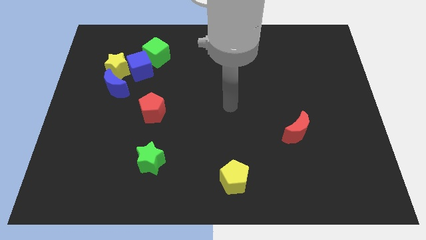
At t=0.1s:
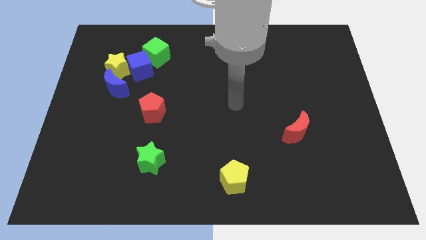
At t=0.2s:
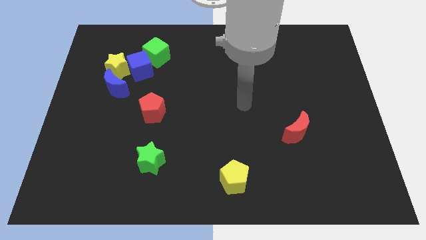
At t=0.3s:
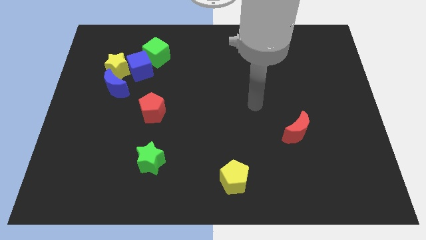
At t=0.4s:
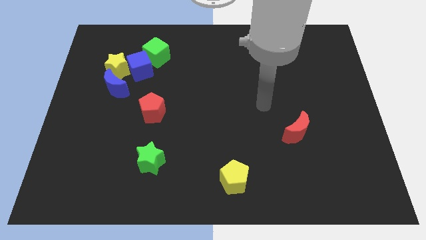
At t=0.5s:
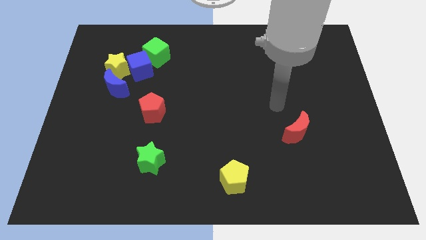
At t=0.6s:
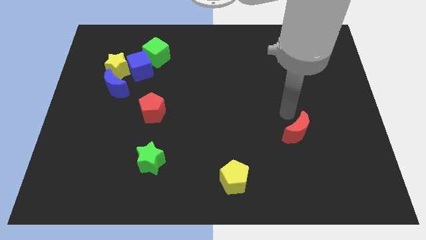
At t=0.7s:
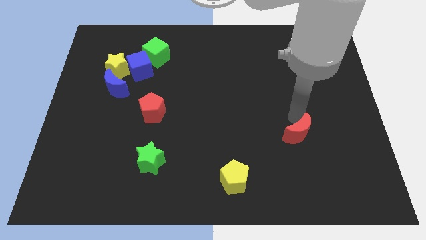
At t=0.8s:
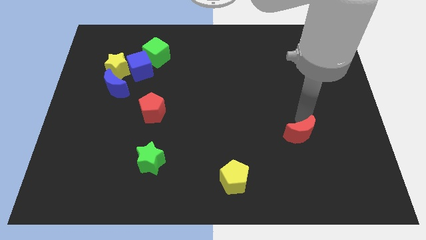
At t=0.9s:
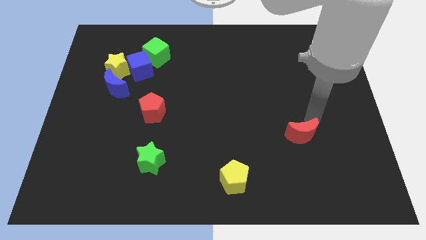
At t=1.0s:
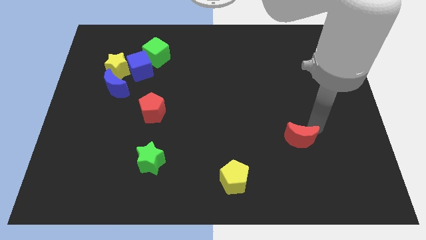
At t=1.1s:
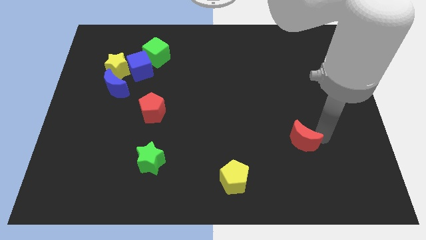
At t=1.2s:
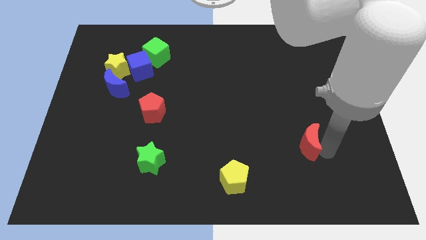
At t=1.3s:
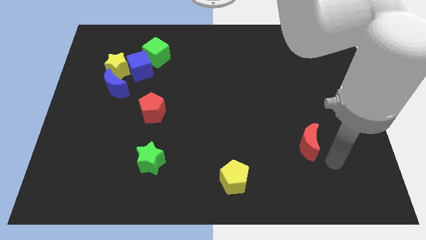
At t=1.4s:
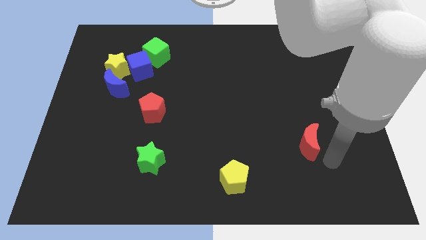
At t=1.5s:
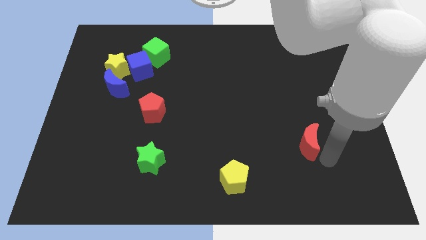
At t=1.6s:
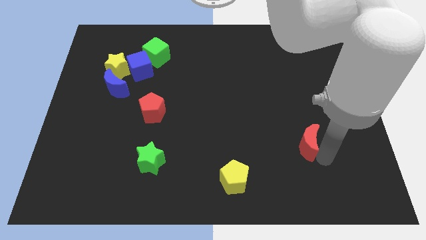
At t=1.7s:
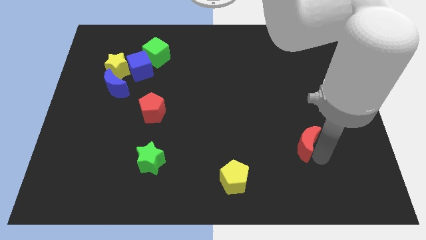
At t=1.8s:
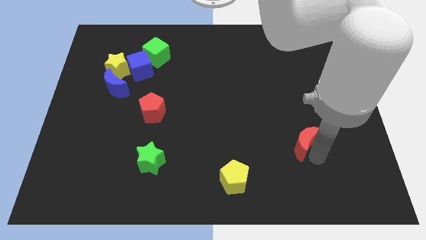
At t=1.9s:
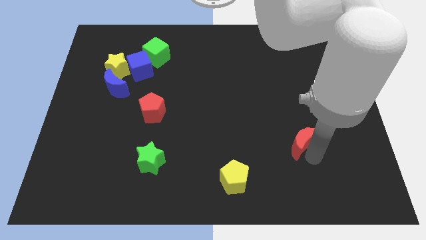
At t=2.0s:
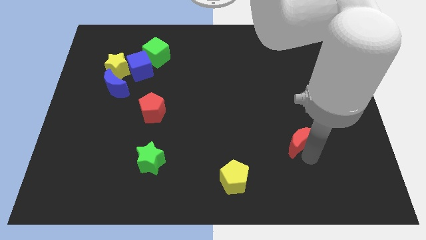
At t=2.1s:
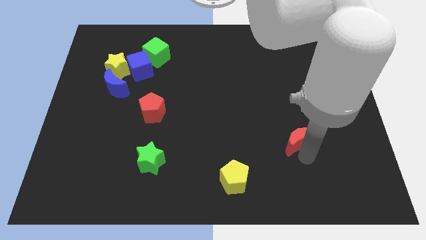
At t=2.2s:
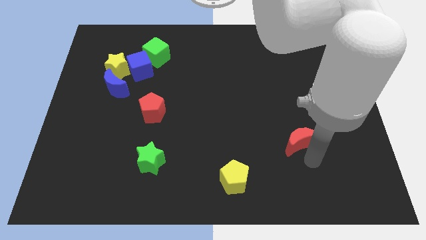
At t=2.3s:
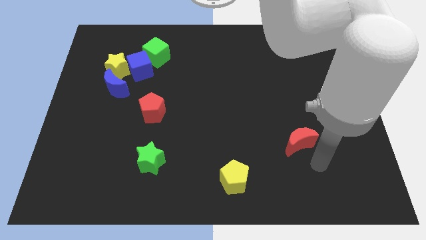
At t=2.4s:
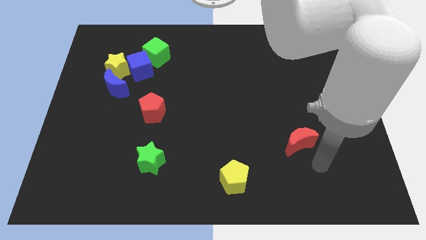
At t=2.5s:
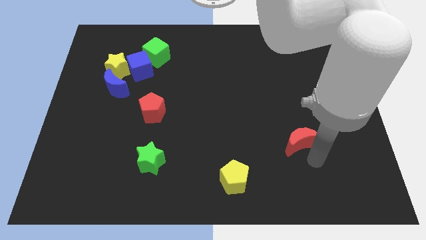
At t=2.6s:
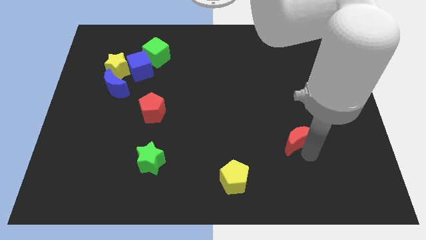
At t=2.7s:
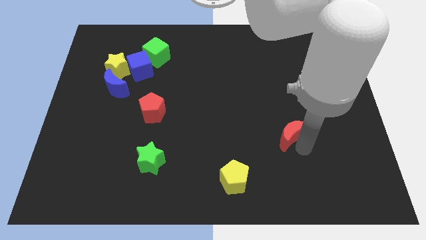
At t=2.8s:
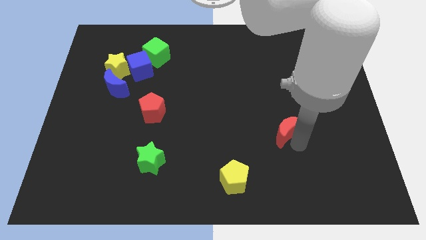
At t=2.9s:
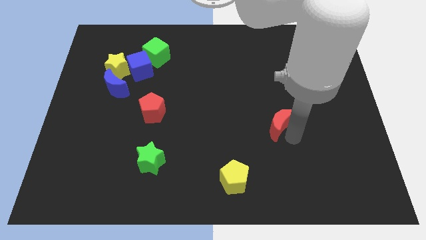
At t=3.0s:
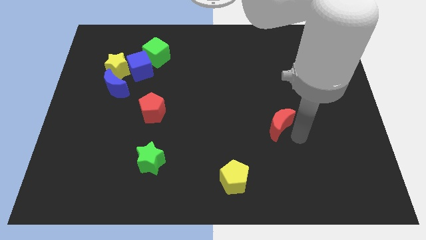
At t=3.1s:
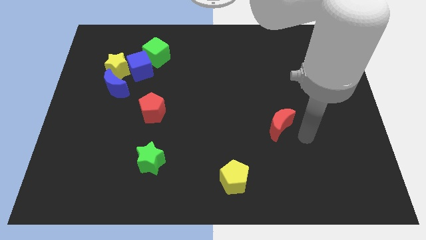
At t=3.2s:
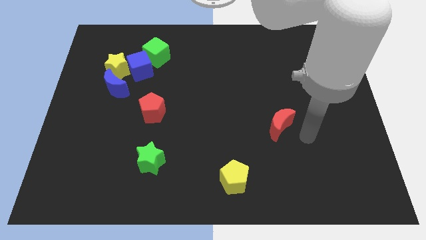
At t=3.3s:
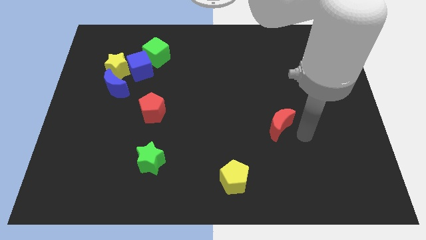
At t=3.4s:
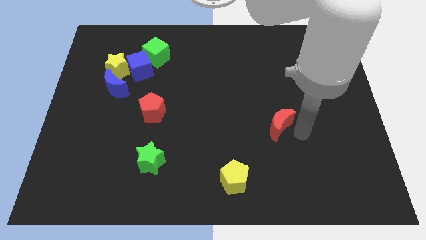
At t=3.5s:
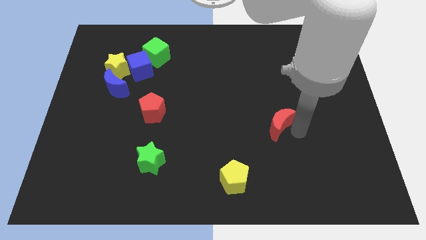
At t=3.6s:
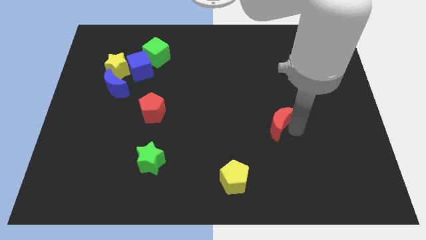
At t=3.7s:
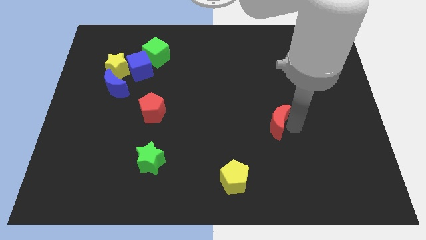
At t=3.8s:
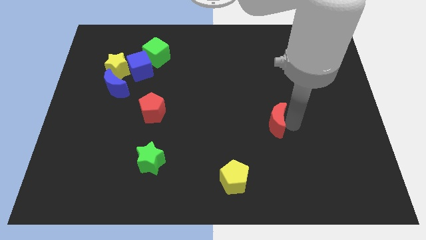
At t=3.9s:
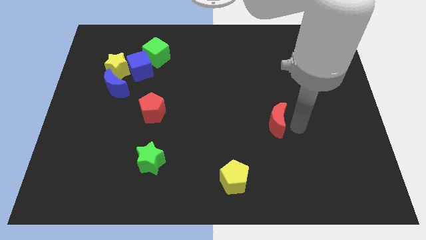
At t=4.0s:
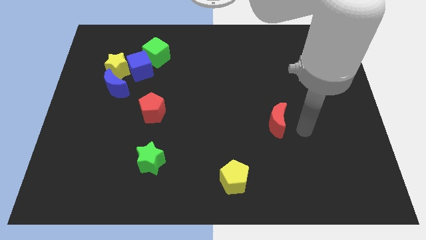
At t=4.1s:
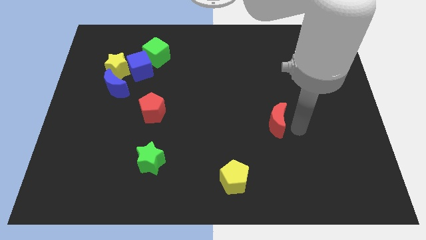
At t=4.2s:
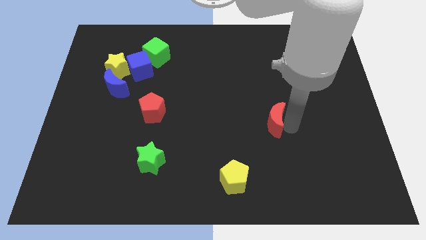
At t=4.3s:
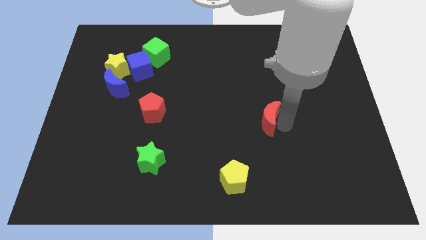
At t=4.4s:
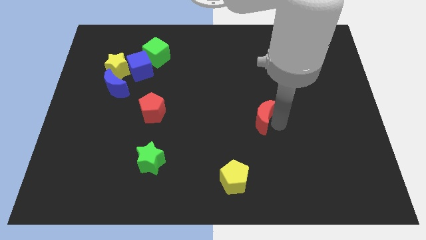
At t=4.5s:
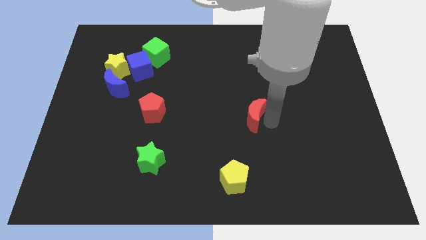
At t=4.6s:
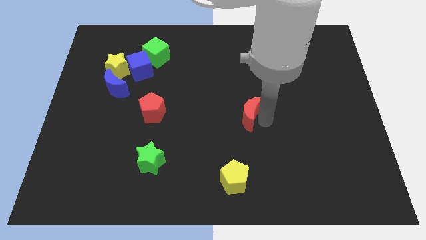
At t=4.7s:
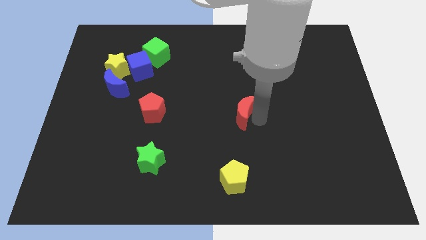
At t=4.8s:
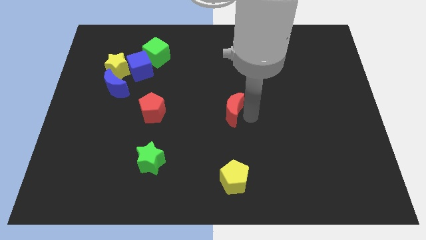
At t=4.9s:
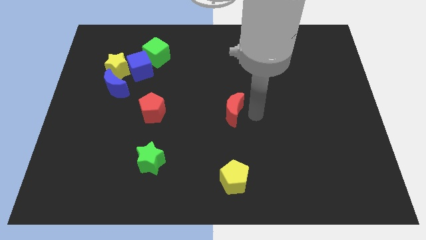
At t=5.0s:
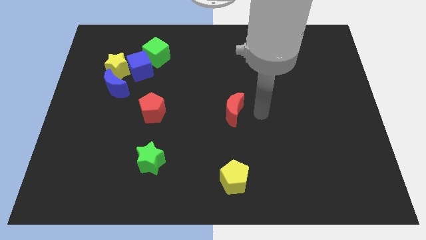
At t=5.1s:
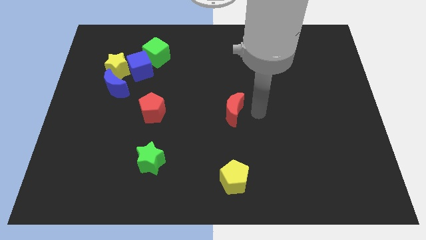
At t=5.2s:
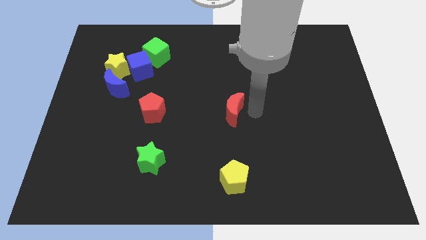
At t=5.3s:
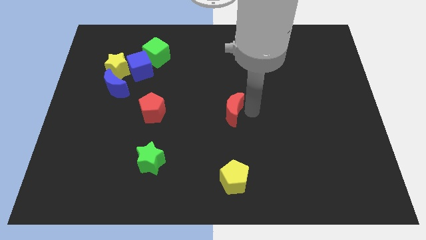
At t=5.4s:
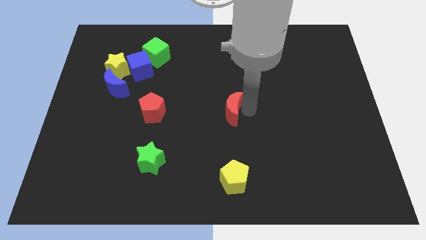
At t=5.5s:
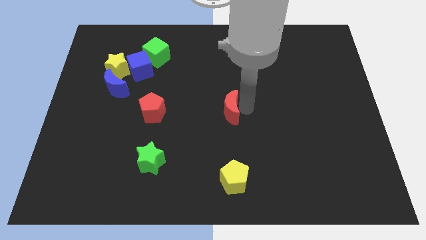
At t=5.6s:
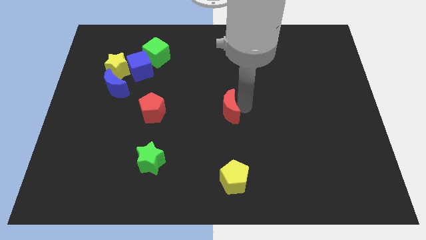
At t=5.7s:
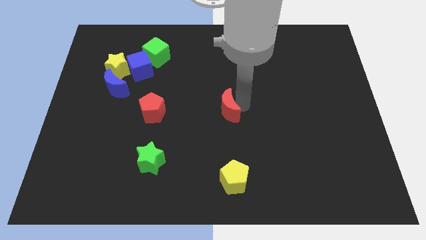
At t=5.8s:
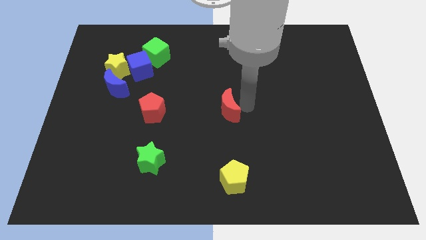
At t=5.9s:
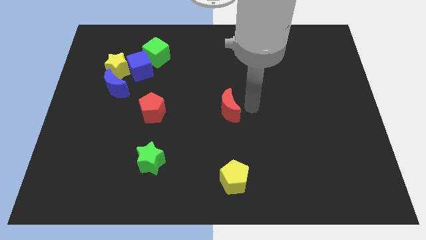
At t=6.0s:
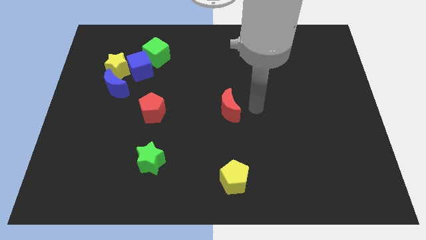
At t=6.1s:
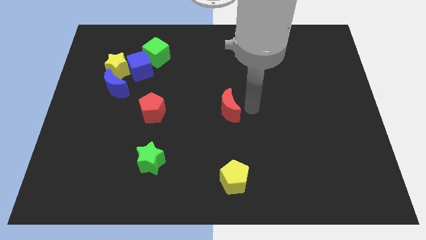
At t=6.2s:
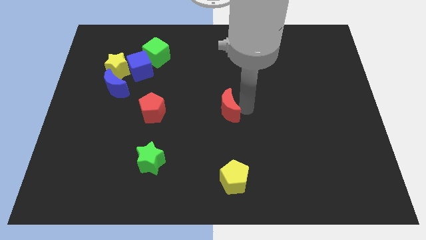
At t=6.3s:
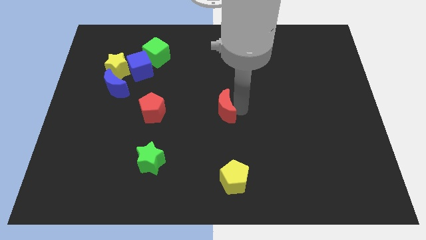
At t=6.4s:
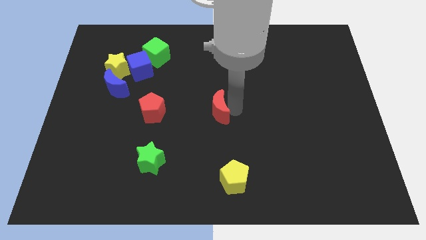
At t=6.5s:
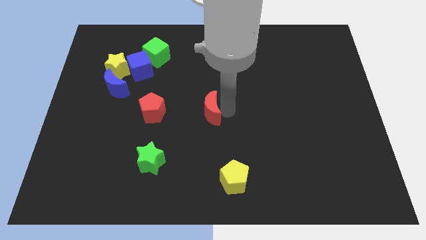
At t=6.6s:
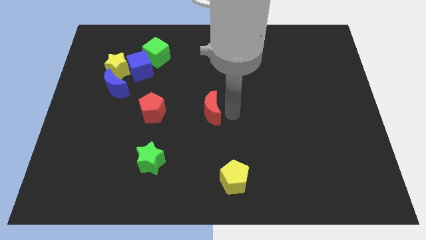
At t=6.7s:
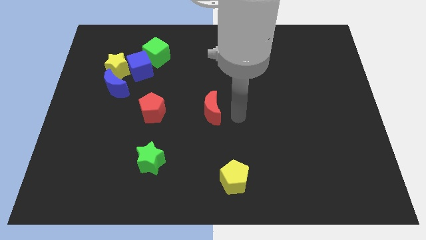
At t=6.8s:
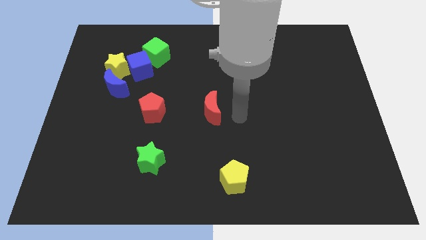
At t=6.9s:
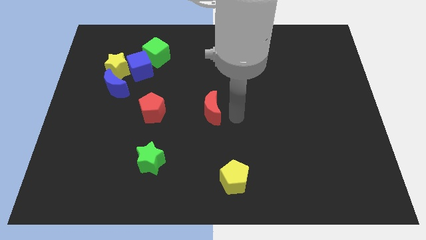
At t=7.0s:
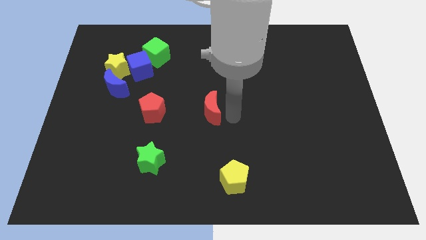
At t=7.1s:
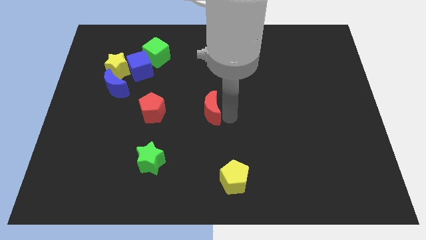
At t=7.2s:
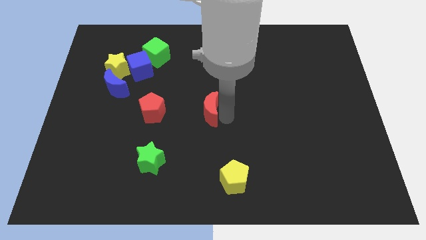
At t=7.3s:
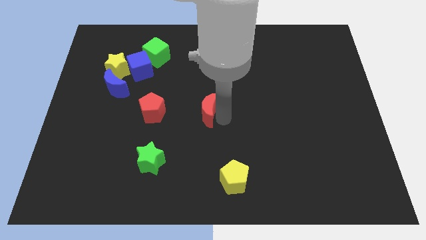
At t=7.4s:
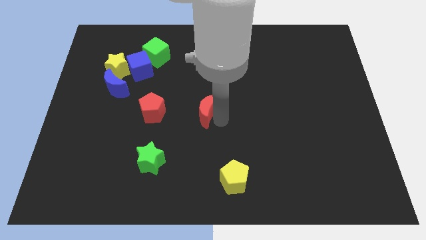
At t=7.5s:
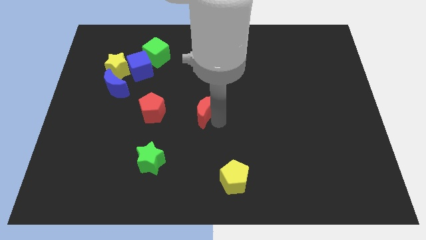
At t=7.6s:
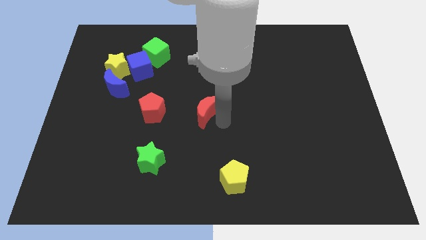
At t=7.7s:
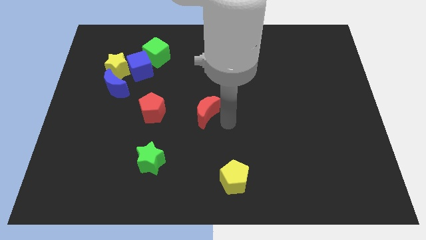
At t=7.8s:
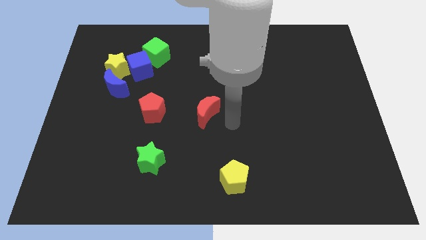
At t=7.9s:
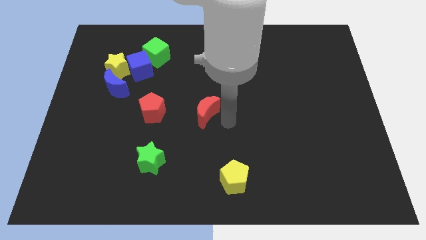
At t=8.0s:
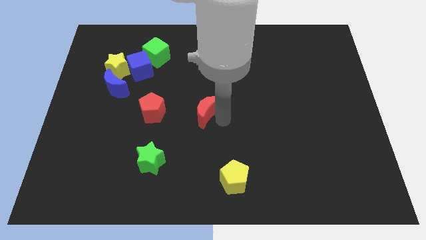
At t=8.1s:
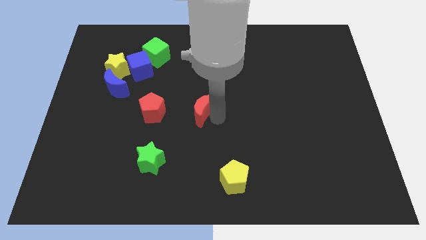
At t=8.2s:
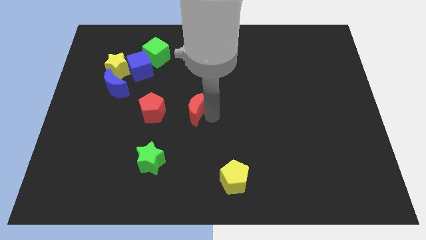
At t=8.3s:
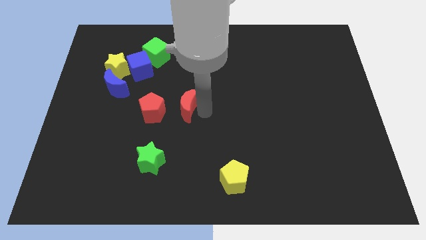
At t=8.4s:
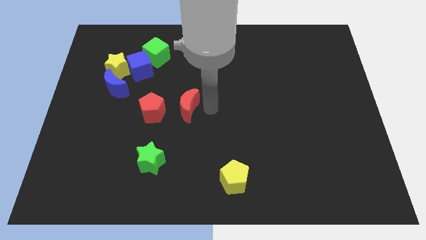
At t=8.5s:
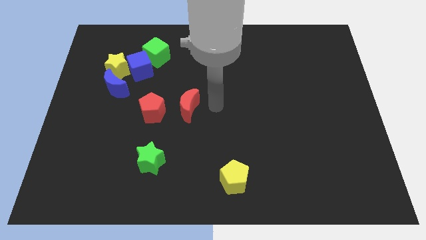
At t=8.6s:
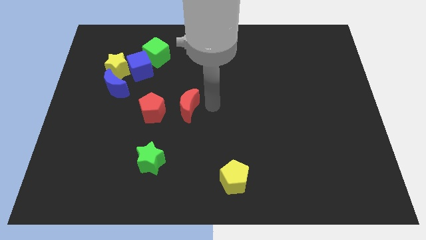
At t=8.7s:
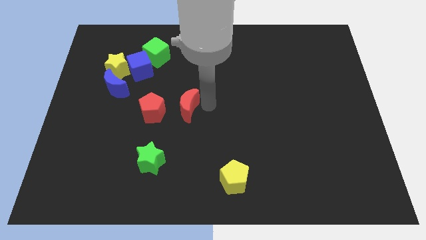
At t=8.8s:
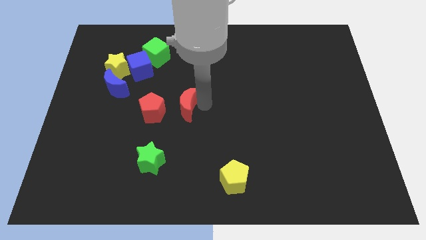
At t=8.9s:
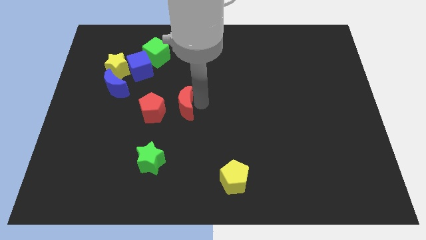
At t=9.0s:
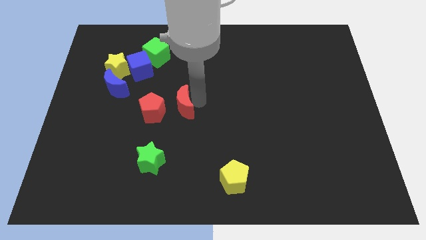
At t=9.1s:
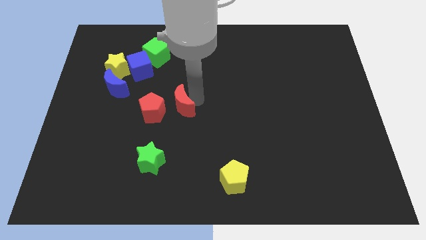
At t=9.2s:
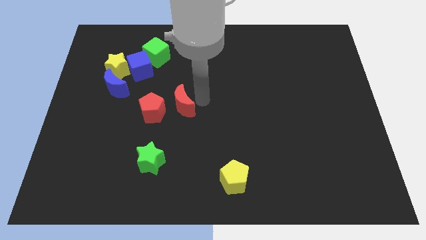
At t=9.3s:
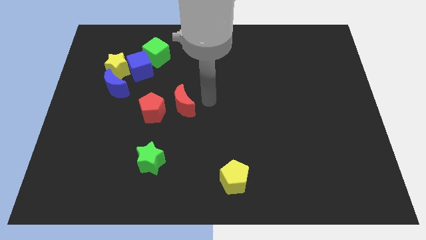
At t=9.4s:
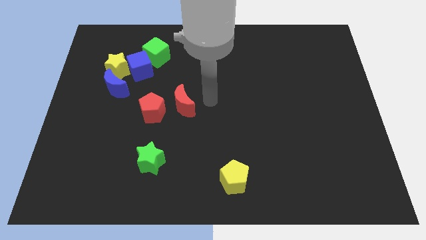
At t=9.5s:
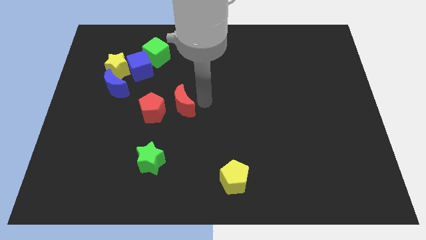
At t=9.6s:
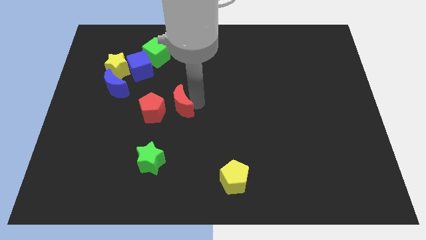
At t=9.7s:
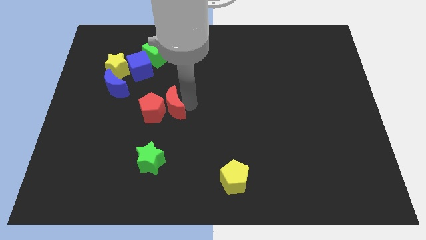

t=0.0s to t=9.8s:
push the red moon to the red pentagon
